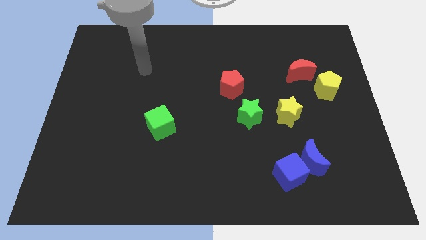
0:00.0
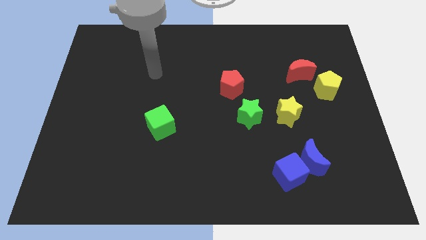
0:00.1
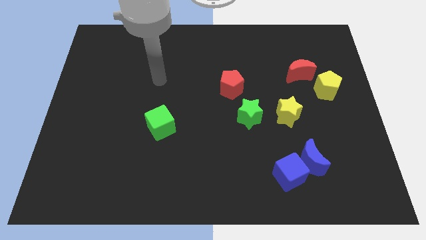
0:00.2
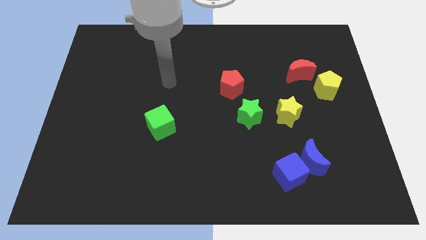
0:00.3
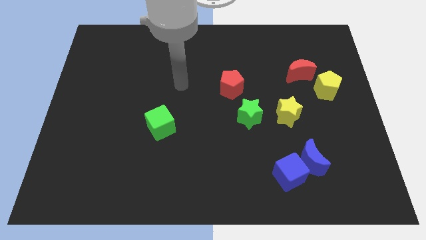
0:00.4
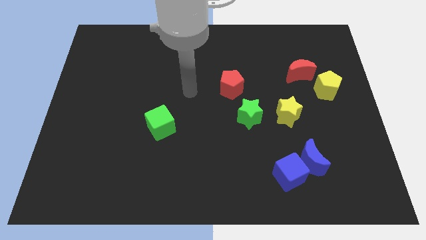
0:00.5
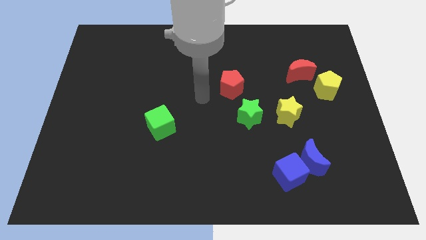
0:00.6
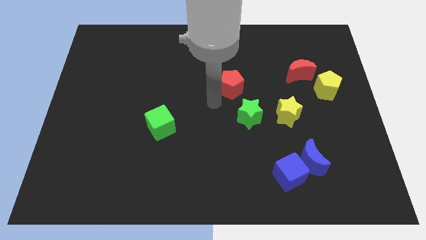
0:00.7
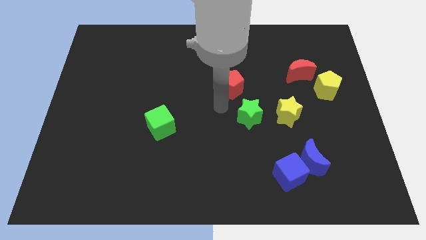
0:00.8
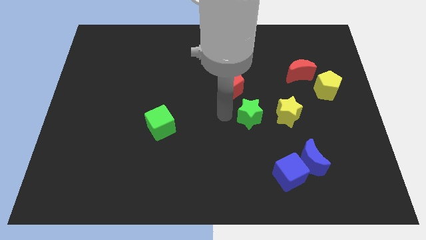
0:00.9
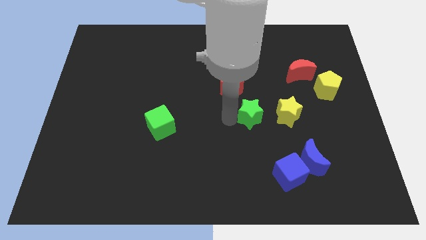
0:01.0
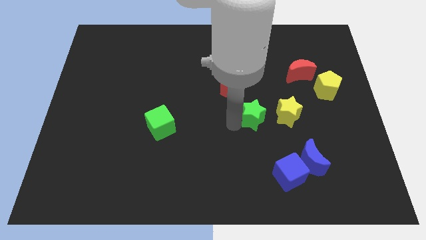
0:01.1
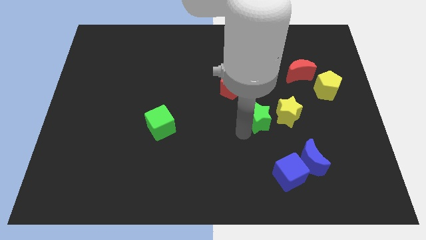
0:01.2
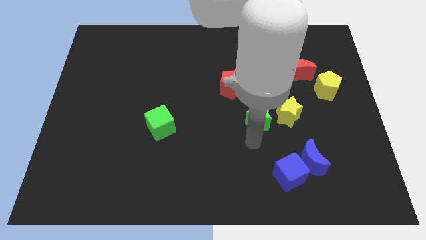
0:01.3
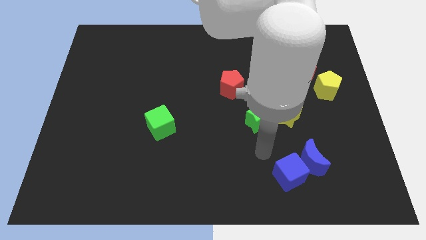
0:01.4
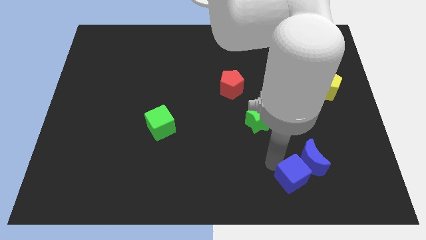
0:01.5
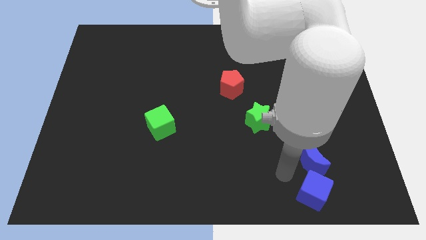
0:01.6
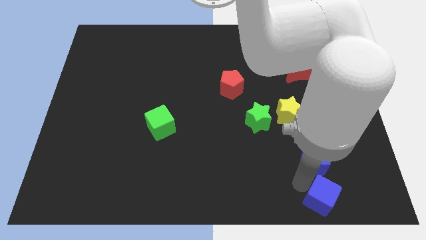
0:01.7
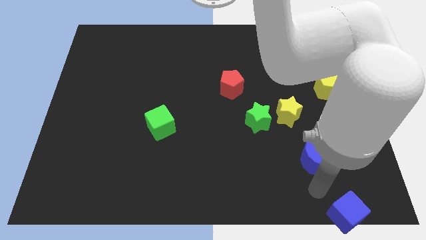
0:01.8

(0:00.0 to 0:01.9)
move the blue moon away from the blue cube

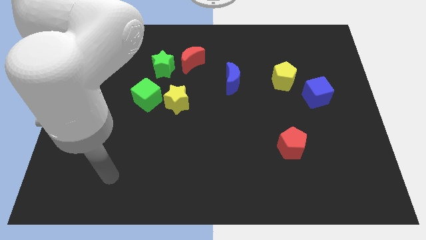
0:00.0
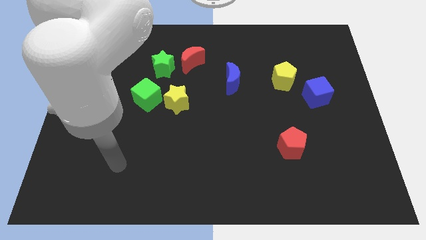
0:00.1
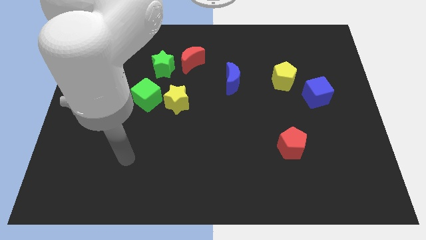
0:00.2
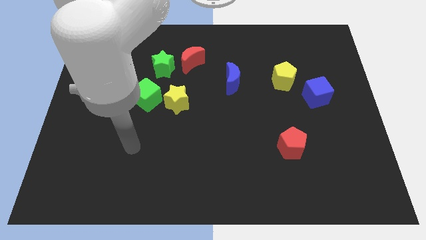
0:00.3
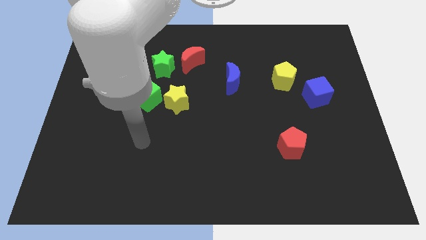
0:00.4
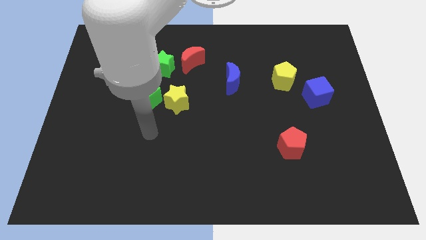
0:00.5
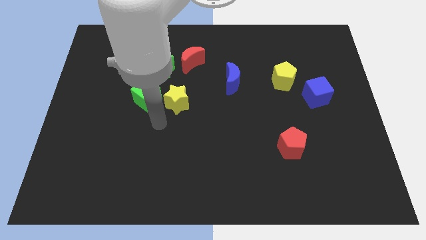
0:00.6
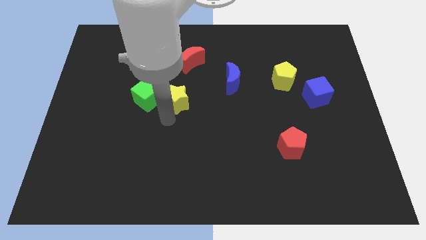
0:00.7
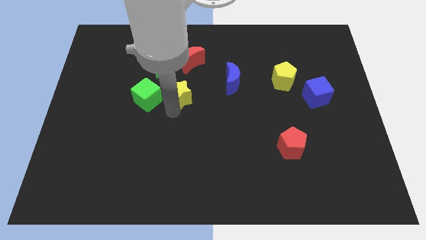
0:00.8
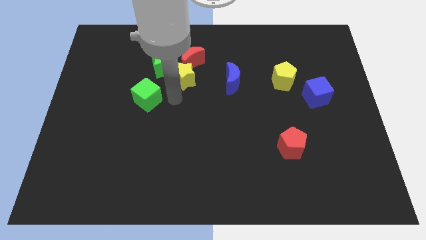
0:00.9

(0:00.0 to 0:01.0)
pull the green cube apart from the yellow star

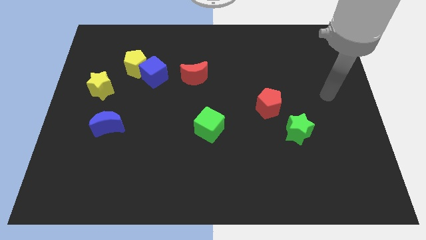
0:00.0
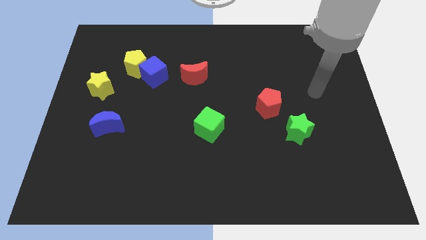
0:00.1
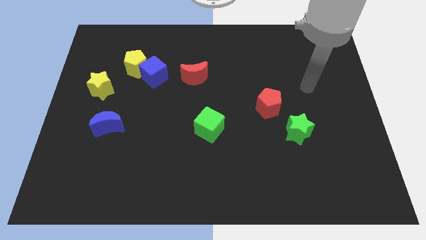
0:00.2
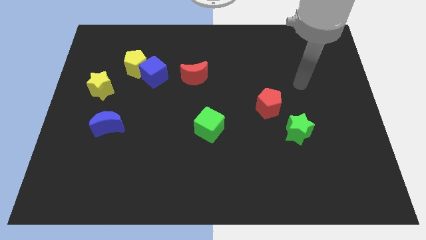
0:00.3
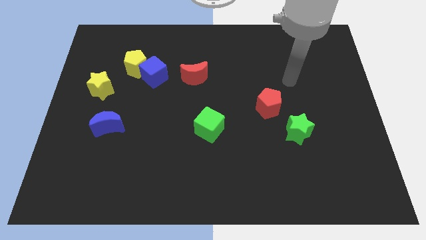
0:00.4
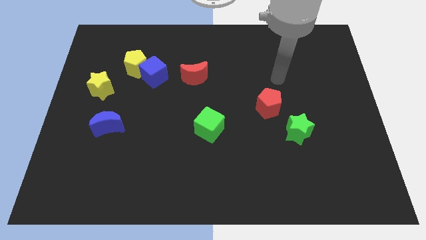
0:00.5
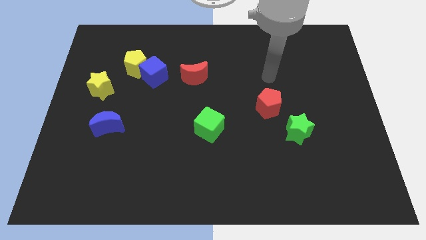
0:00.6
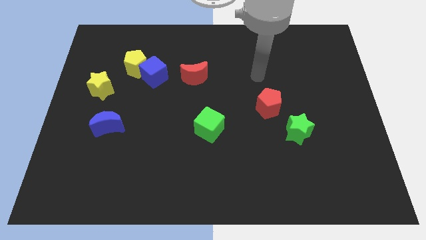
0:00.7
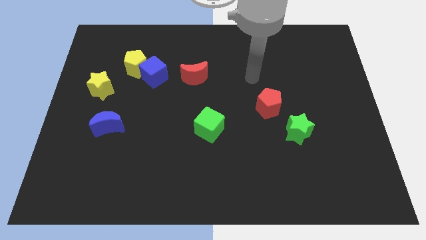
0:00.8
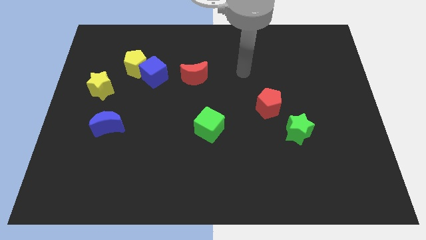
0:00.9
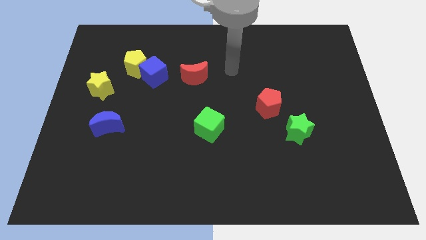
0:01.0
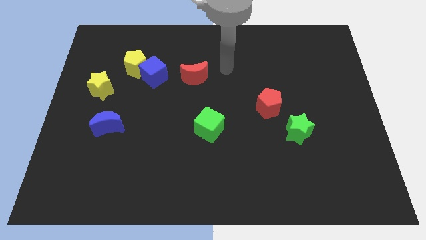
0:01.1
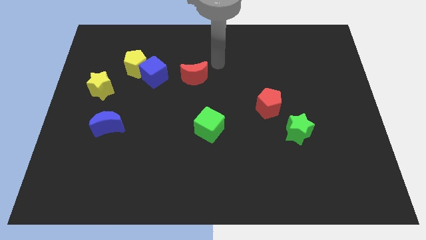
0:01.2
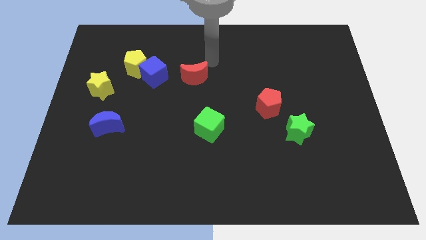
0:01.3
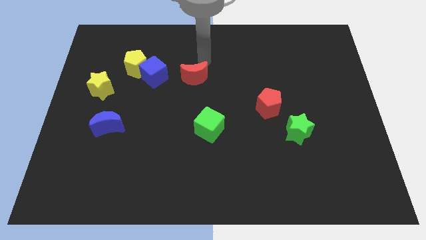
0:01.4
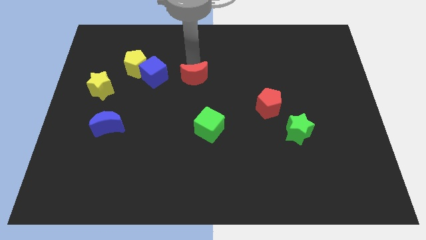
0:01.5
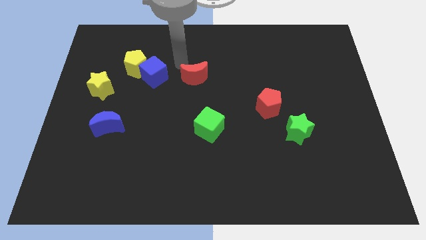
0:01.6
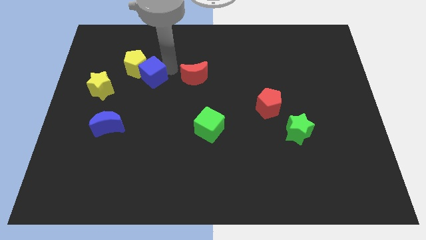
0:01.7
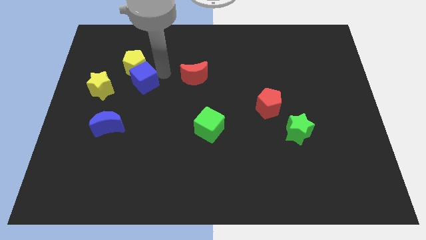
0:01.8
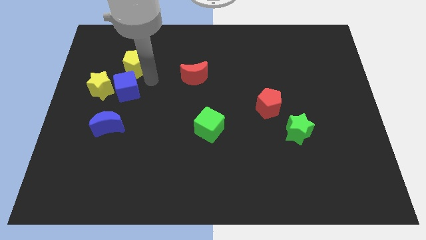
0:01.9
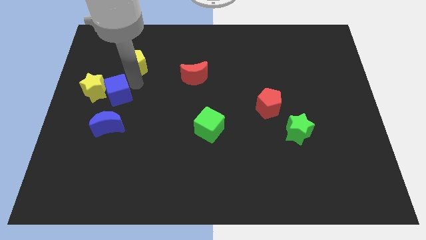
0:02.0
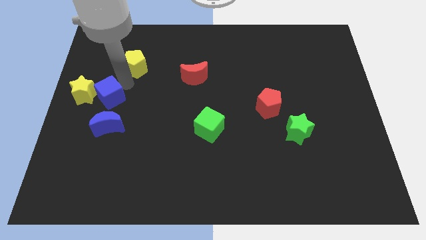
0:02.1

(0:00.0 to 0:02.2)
pull the yellow pentagon apart from the blue cube

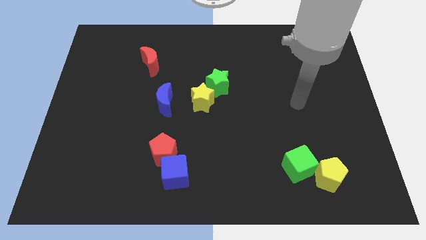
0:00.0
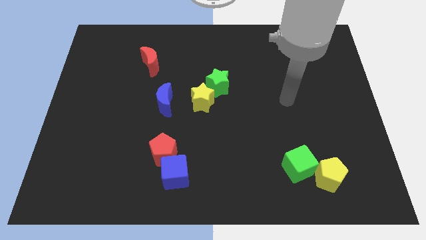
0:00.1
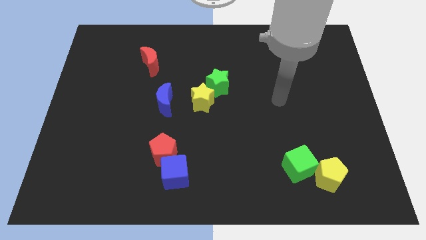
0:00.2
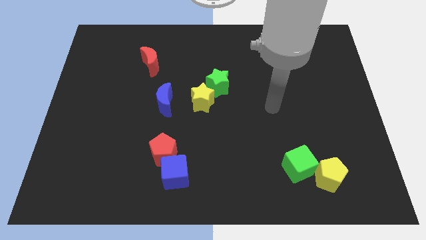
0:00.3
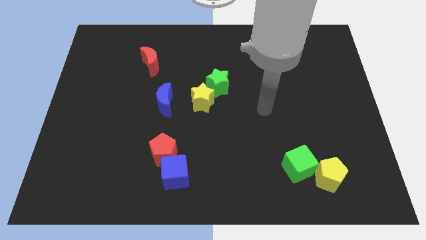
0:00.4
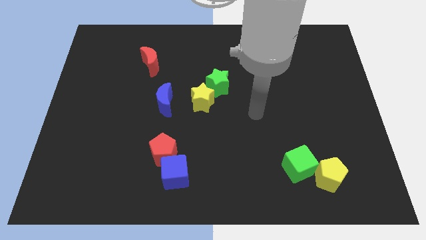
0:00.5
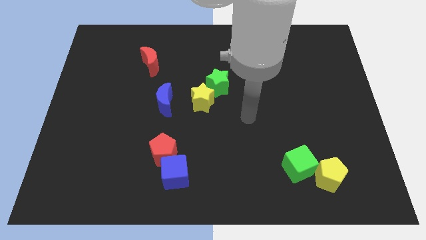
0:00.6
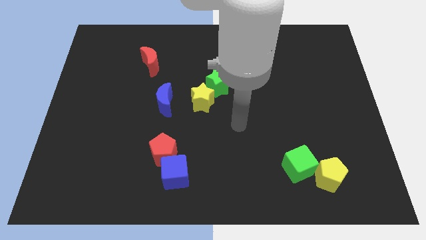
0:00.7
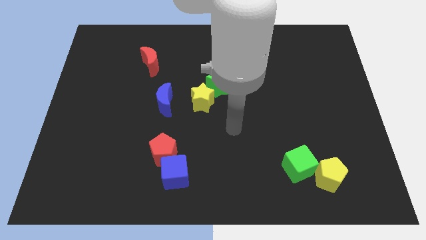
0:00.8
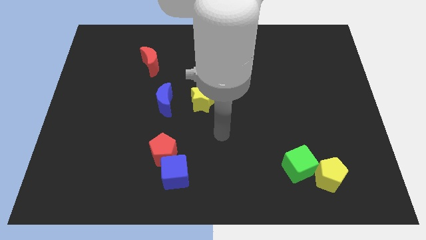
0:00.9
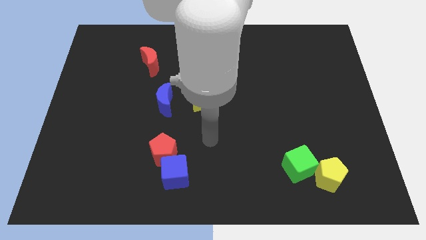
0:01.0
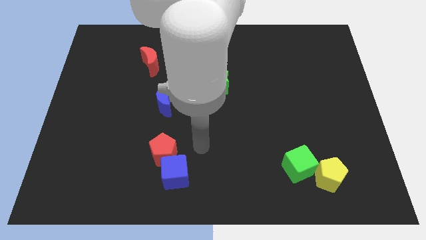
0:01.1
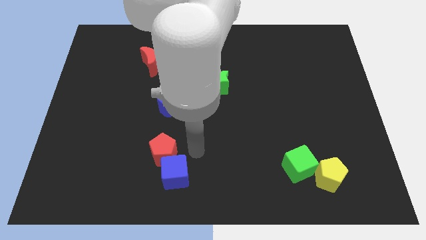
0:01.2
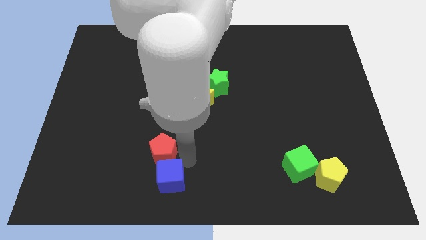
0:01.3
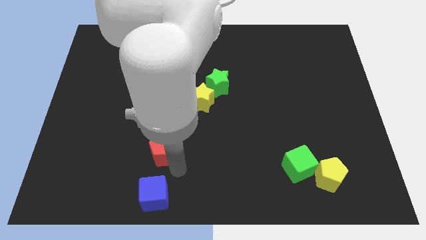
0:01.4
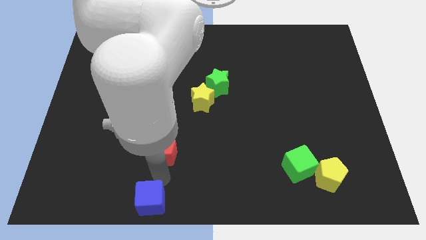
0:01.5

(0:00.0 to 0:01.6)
move the red pentagon away from the blue cube

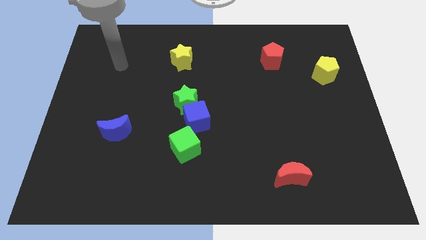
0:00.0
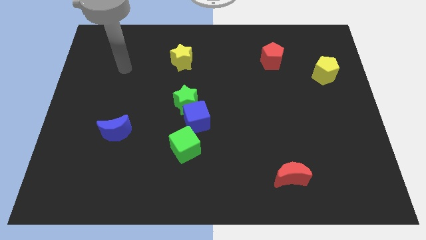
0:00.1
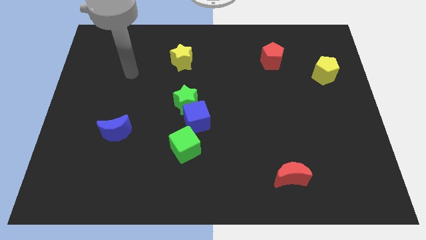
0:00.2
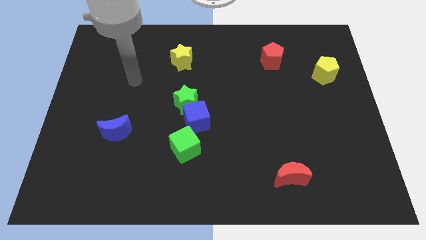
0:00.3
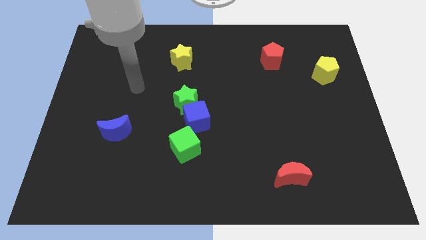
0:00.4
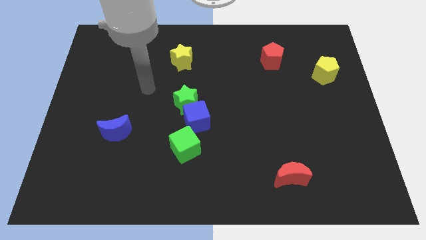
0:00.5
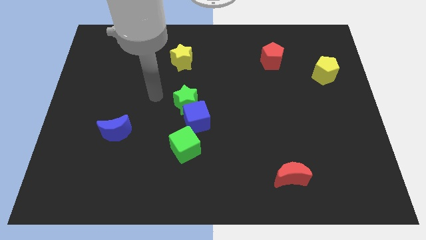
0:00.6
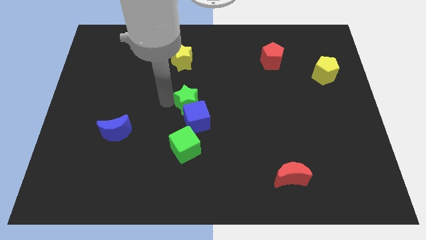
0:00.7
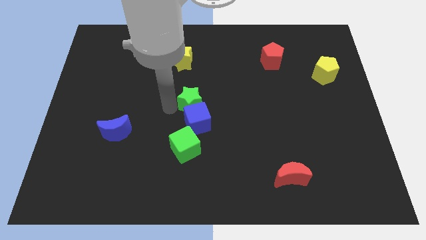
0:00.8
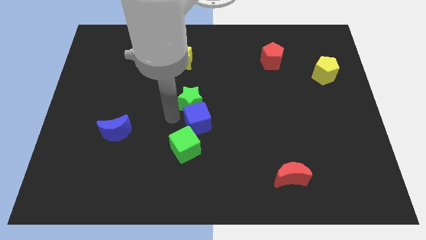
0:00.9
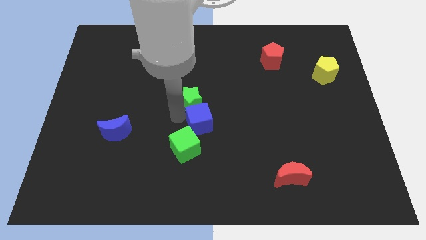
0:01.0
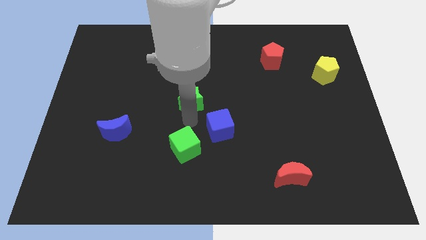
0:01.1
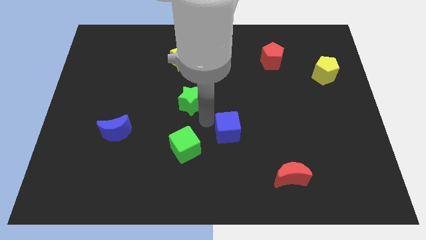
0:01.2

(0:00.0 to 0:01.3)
separate the green star from the blue cube

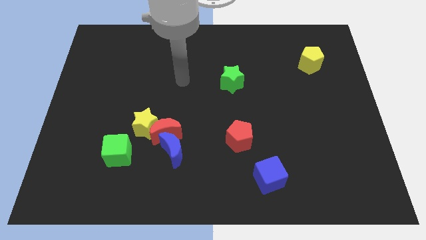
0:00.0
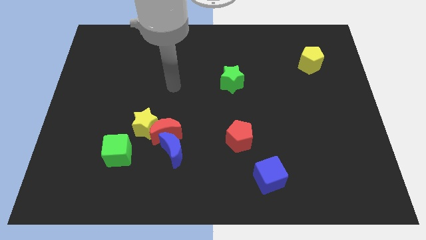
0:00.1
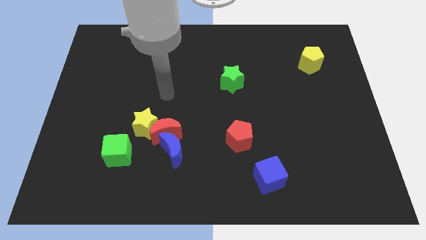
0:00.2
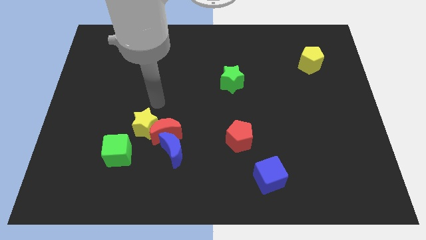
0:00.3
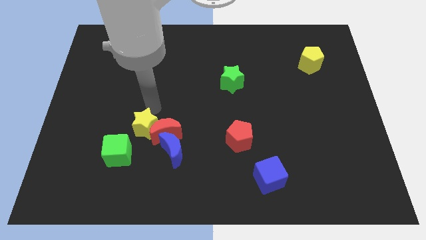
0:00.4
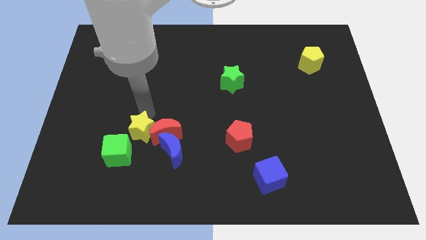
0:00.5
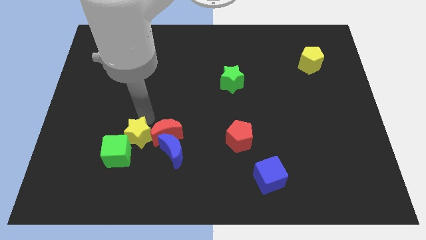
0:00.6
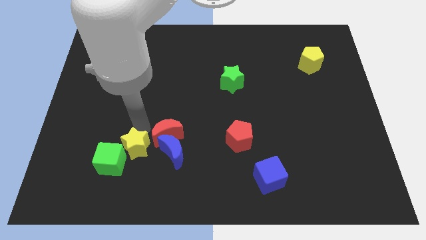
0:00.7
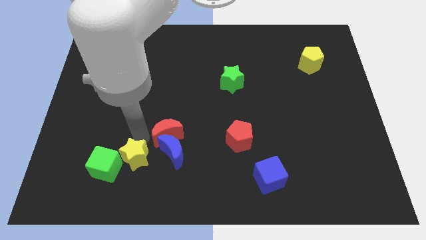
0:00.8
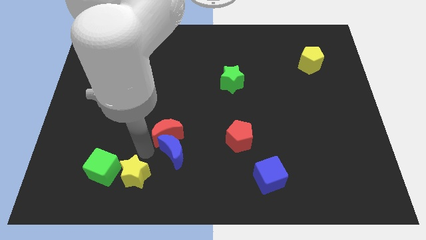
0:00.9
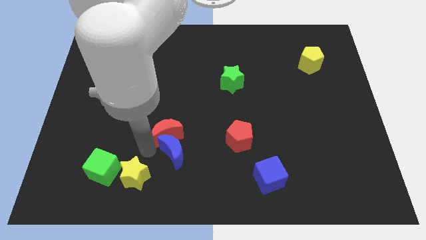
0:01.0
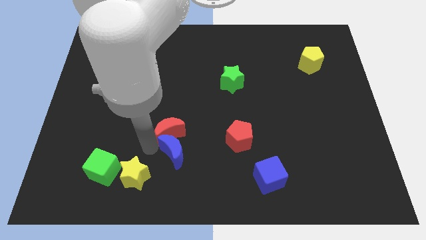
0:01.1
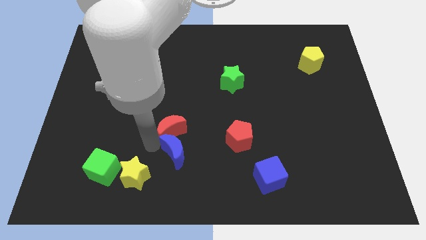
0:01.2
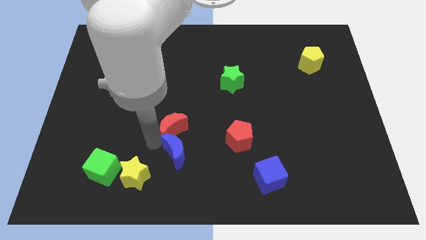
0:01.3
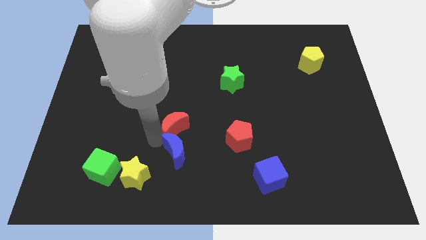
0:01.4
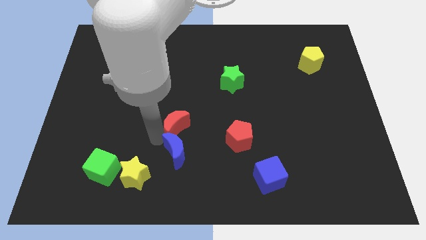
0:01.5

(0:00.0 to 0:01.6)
move the red moon away from the blue moon and yellow star
